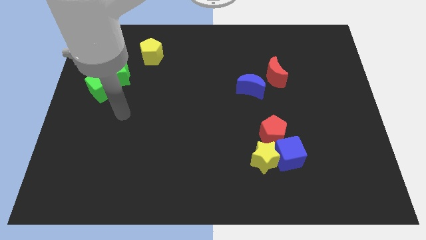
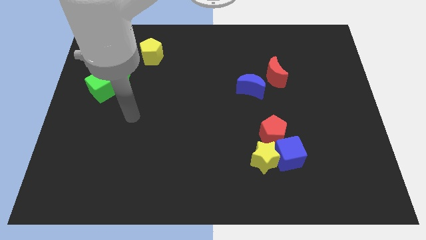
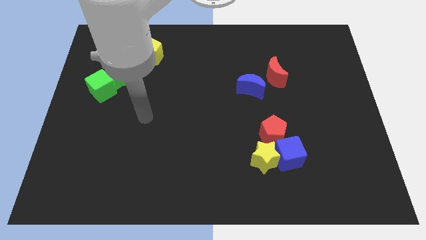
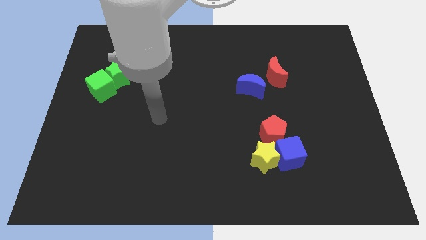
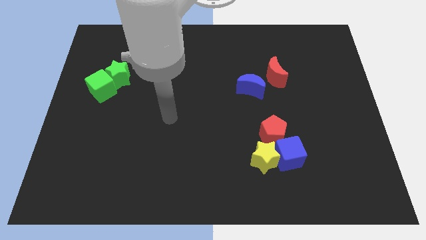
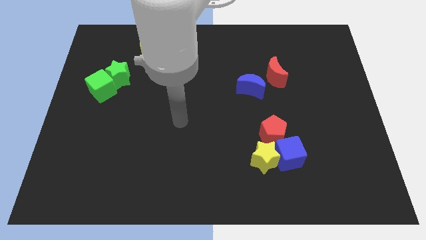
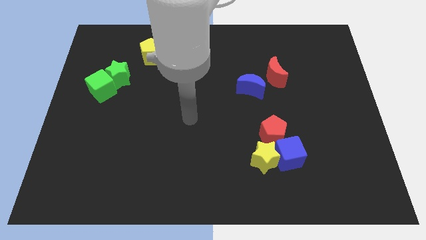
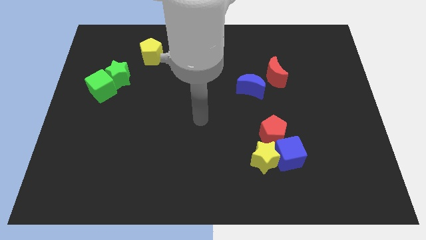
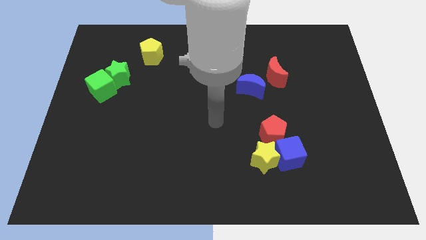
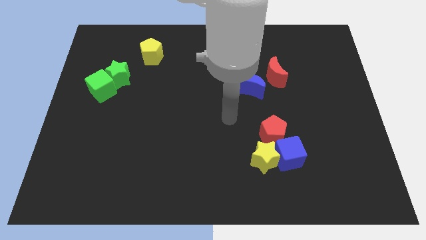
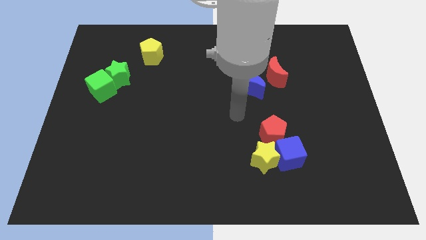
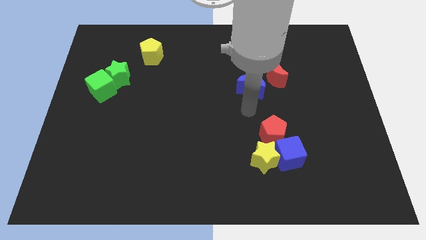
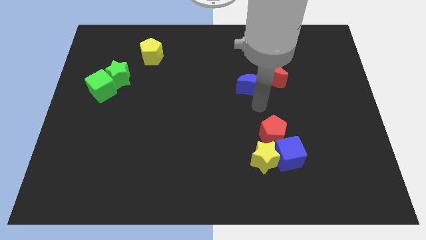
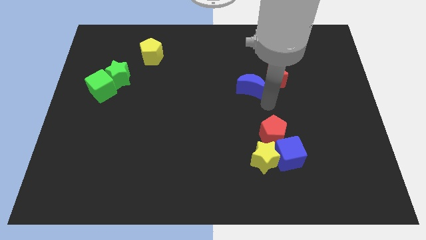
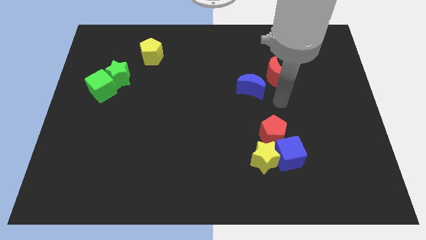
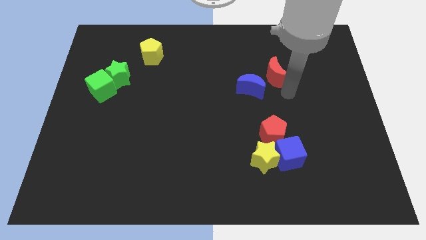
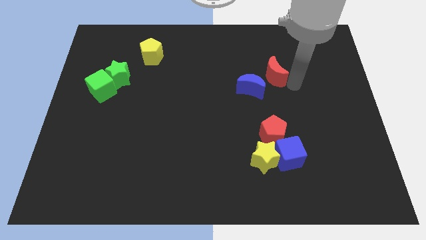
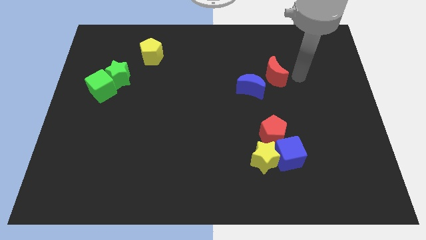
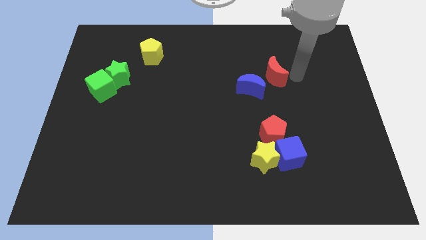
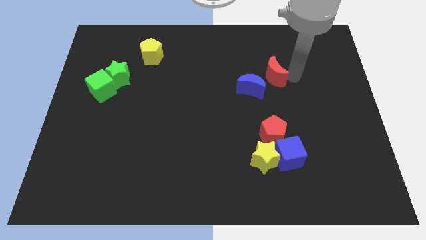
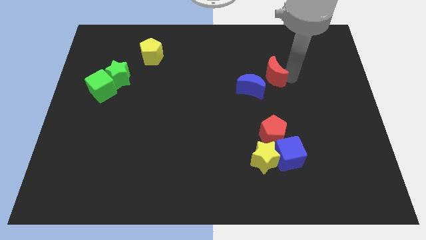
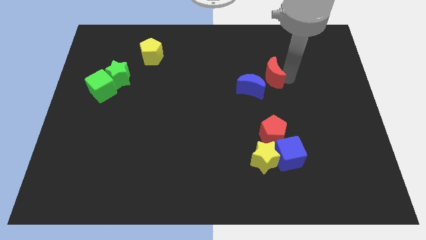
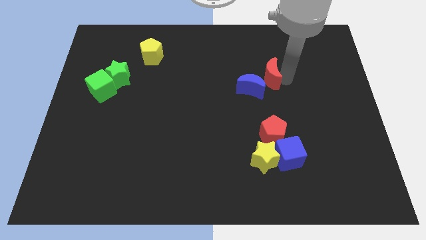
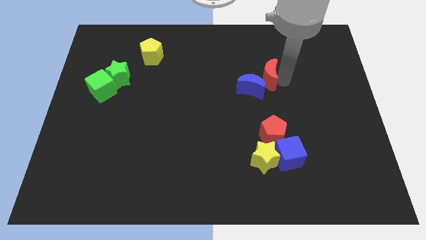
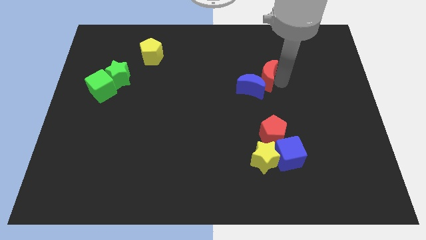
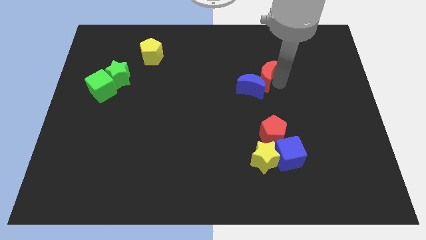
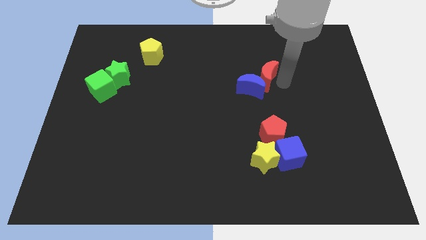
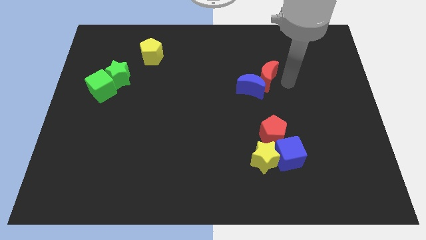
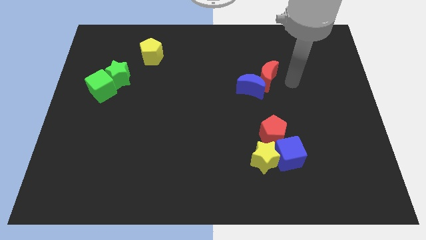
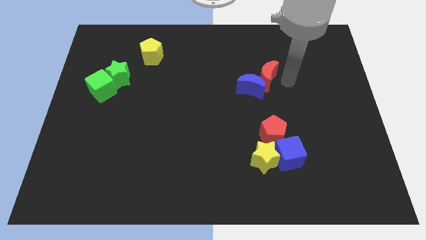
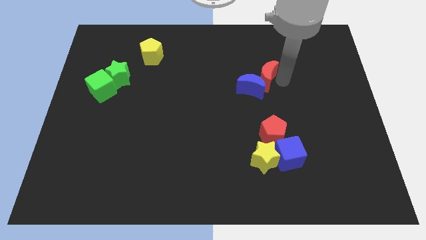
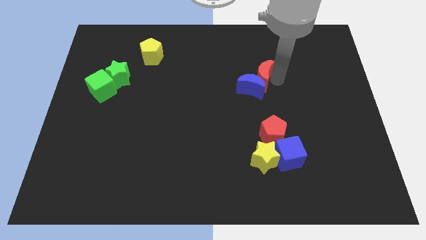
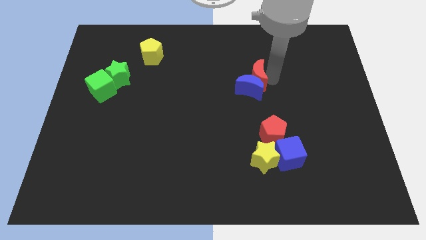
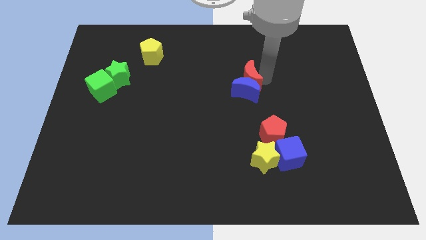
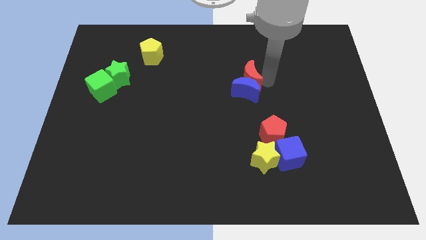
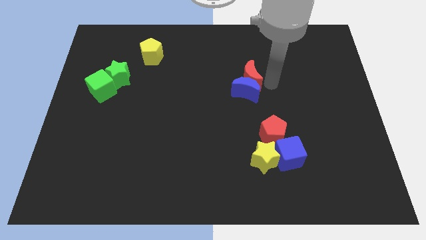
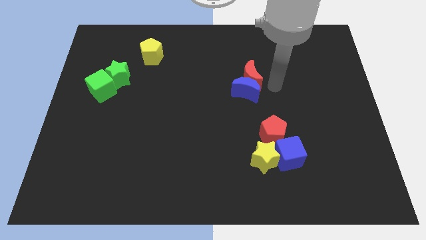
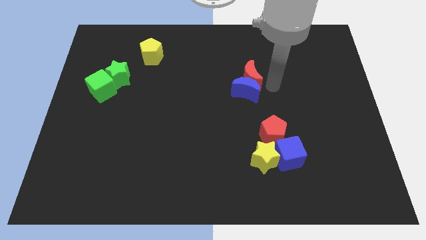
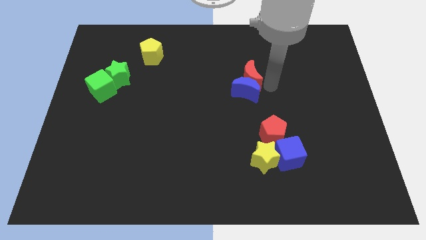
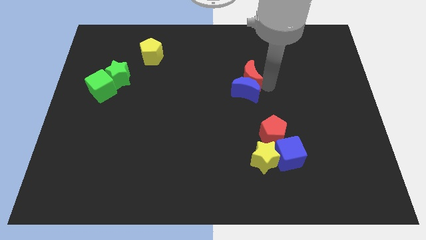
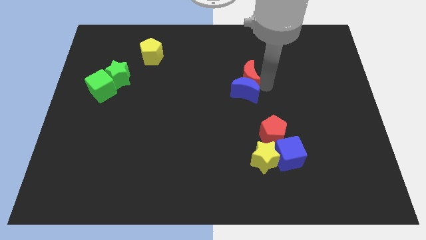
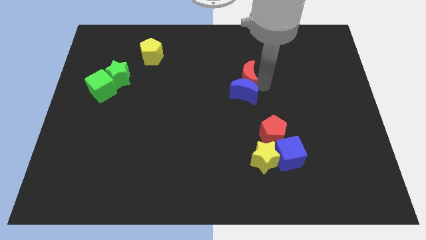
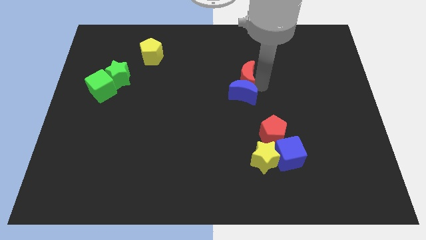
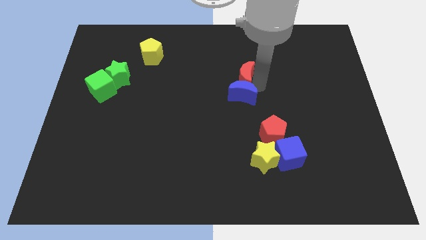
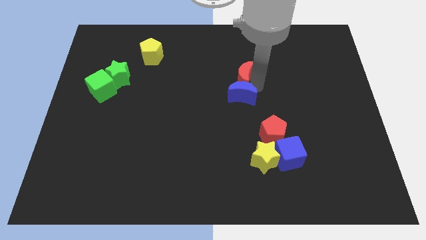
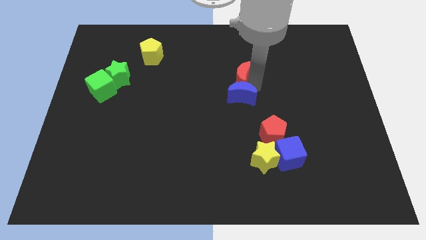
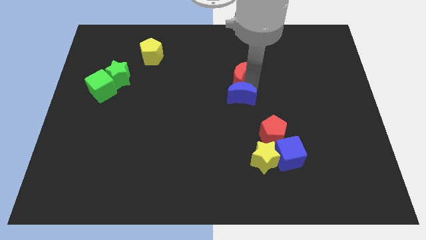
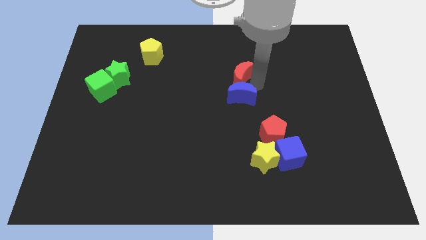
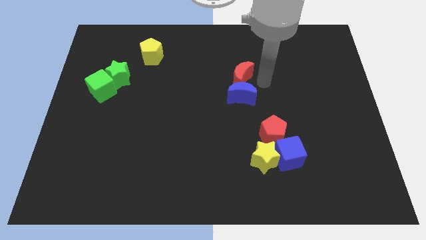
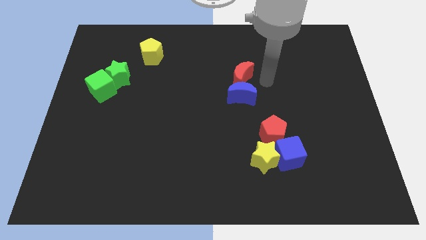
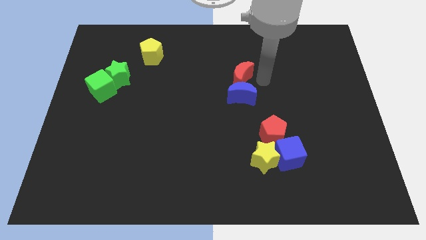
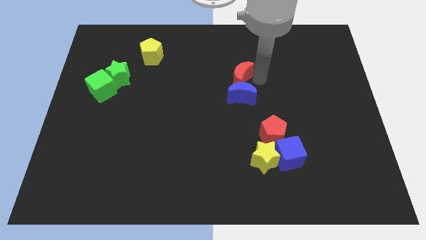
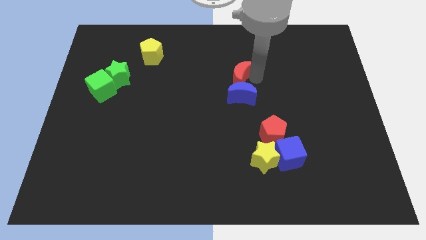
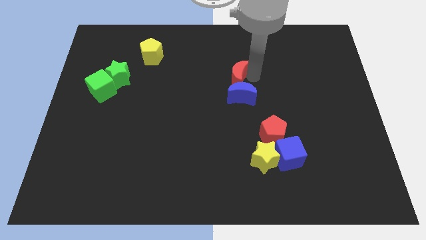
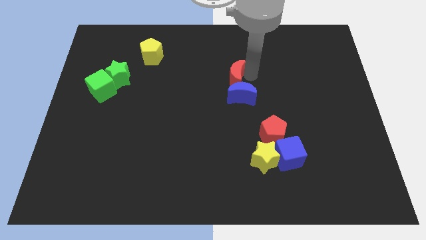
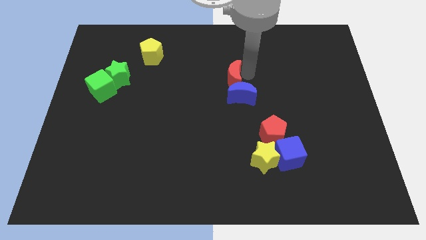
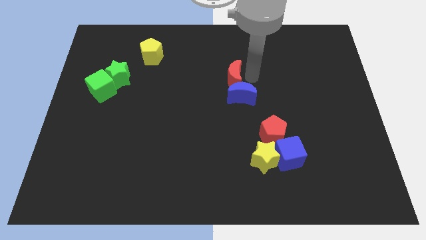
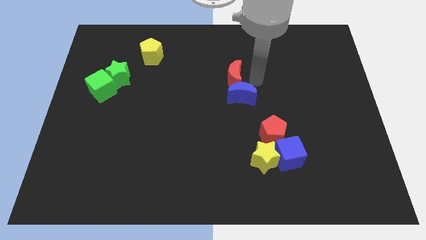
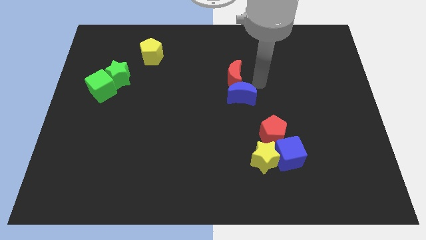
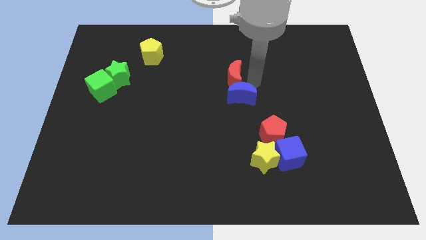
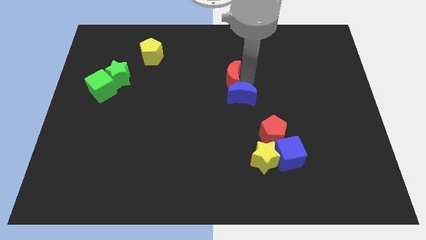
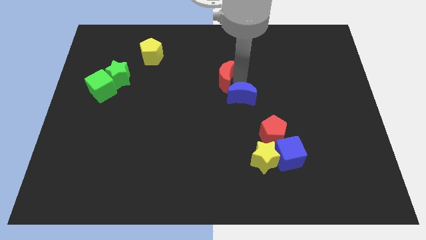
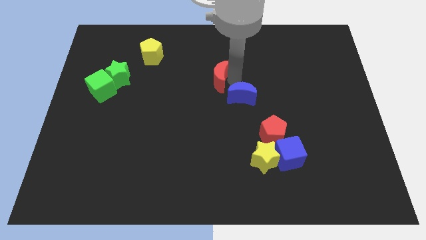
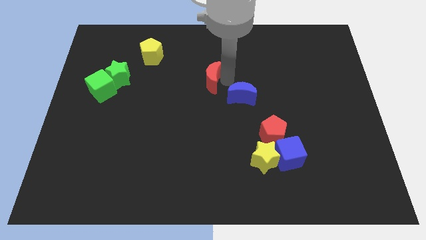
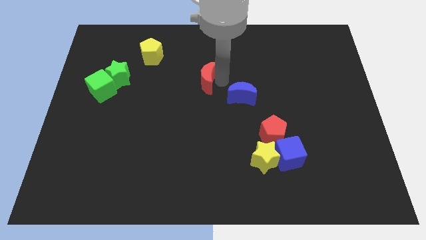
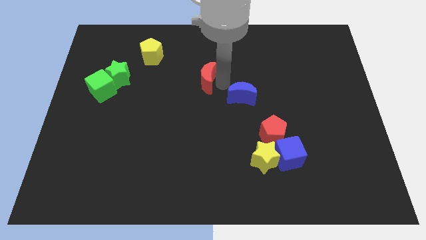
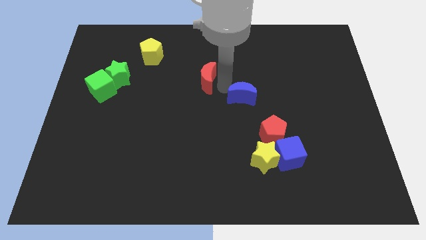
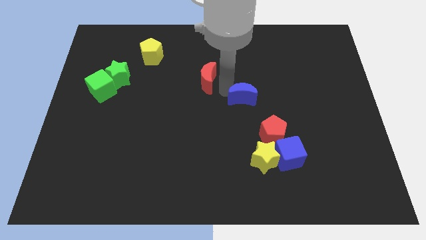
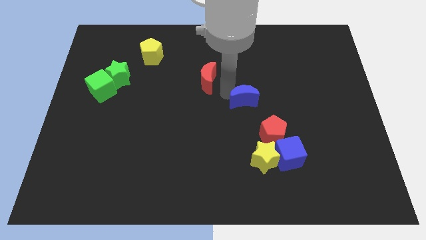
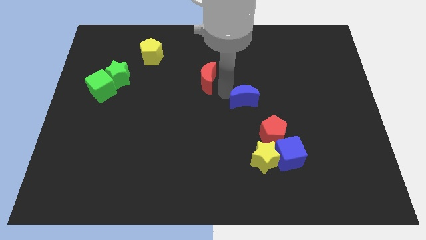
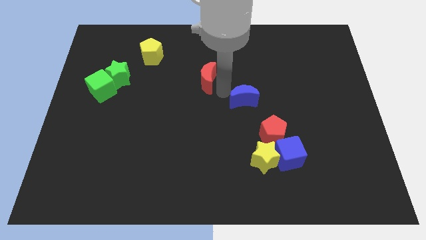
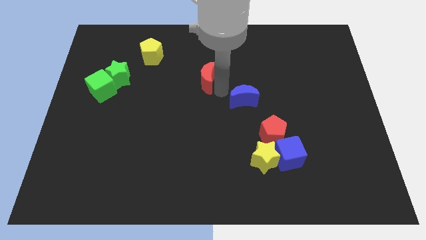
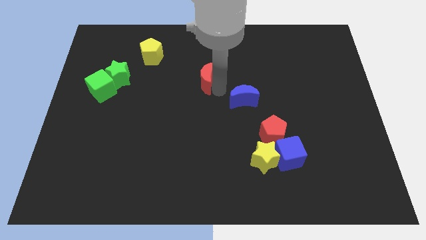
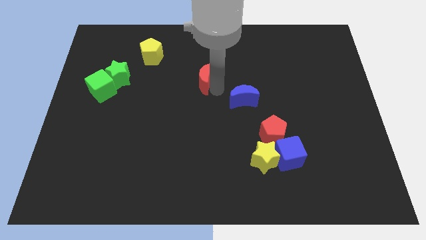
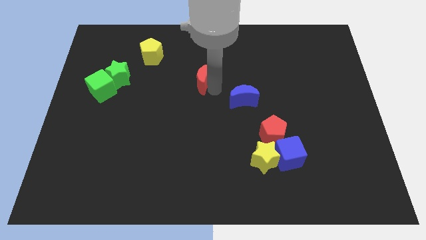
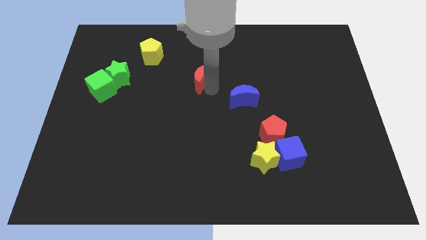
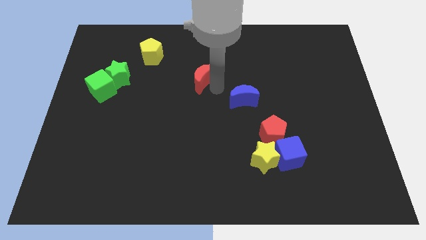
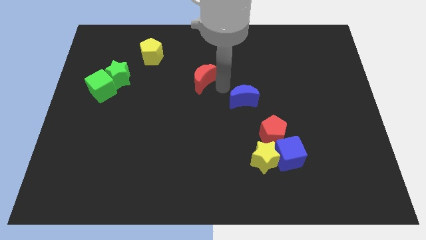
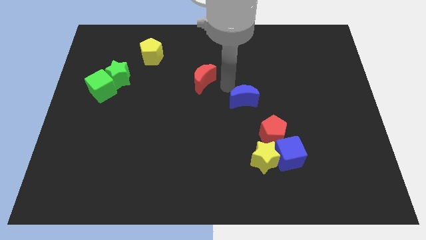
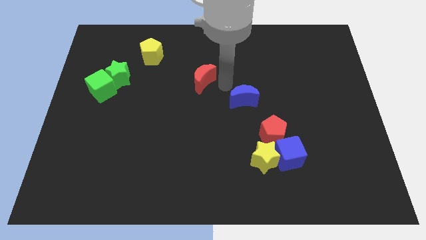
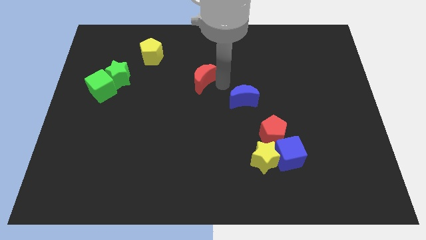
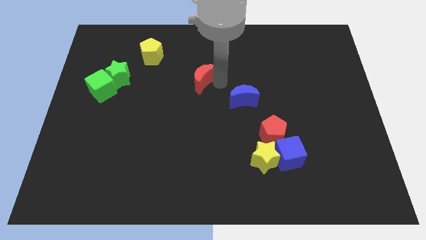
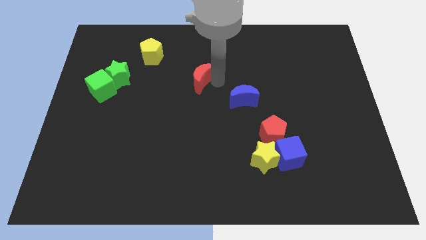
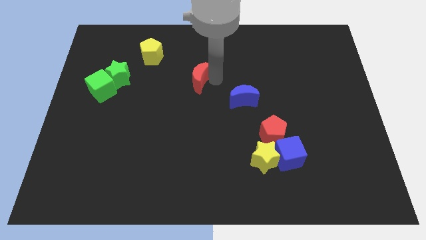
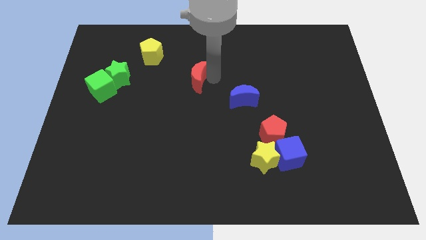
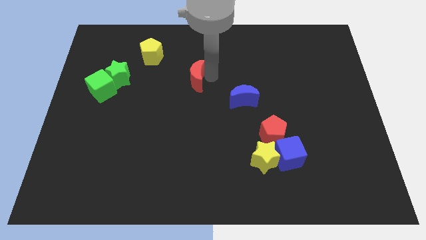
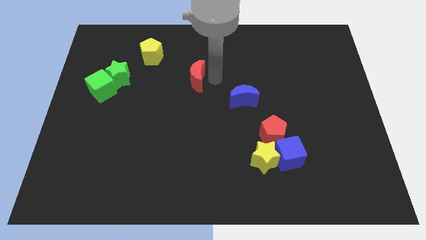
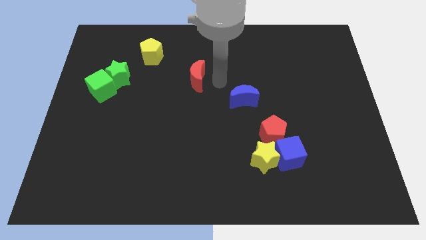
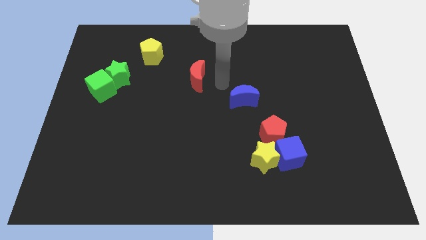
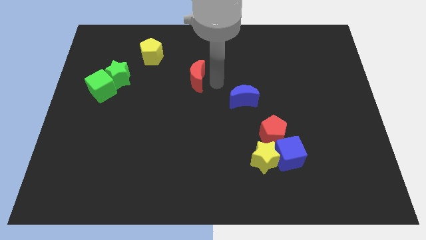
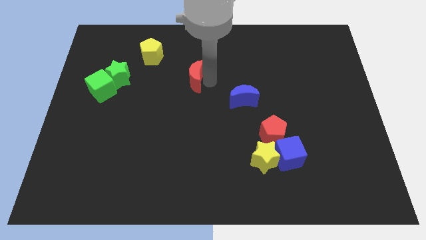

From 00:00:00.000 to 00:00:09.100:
push the red moon to the left
